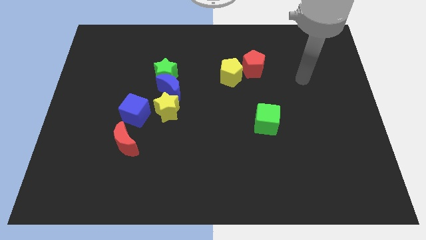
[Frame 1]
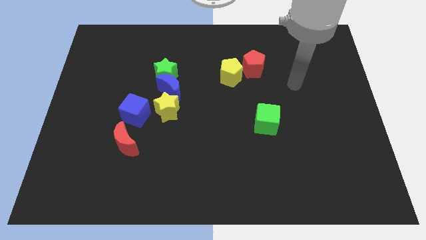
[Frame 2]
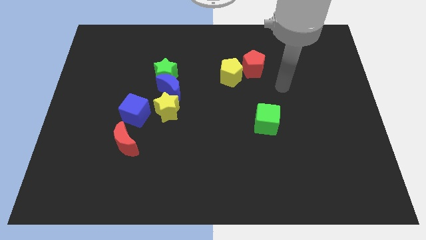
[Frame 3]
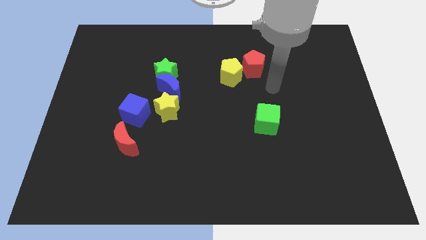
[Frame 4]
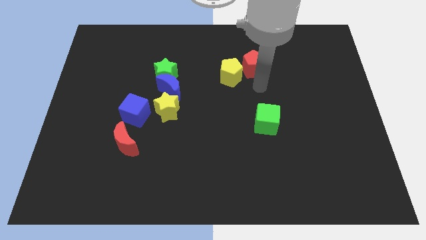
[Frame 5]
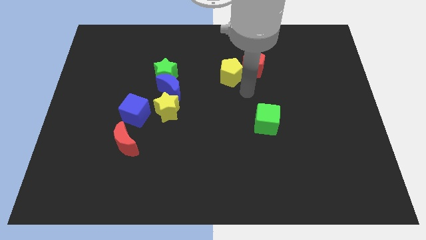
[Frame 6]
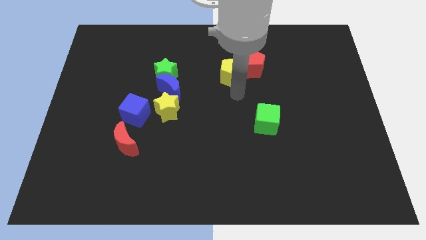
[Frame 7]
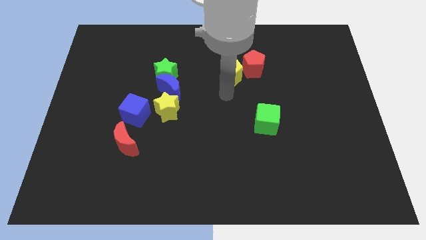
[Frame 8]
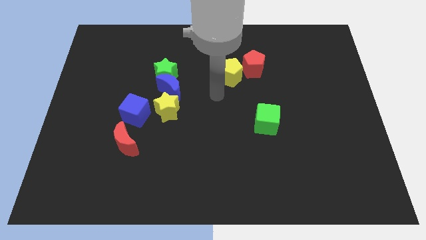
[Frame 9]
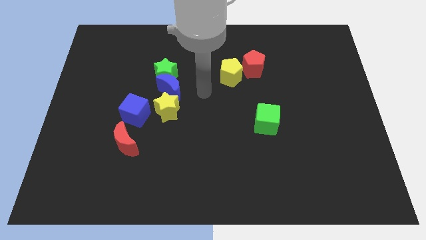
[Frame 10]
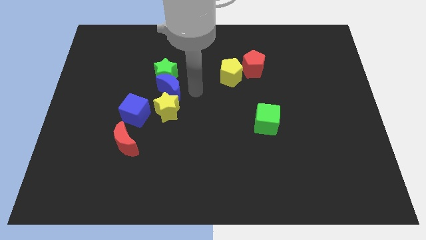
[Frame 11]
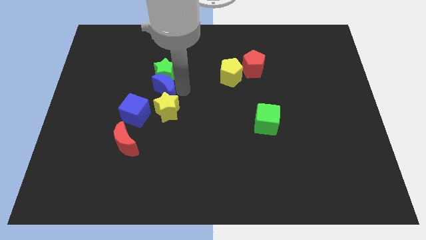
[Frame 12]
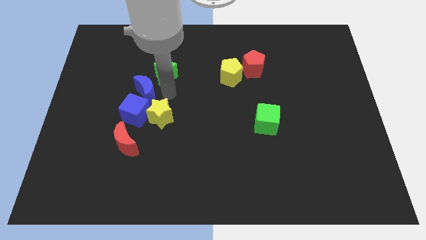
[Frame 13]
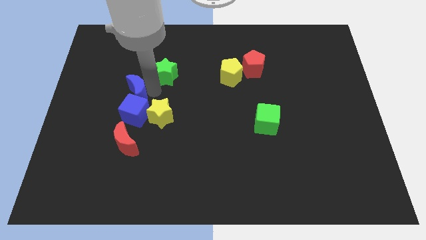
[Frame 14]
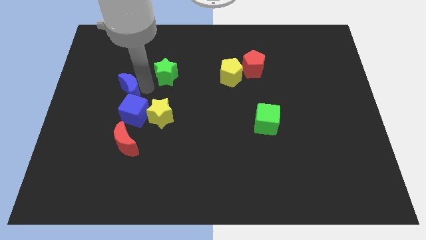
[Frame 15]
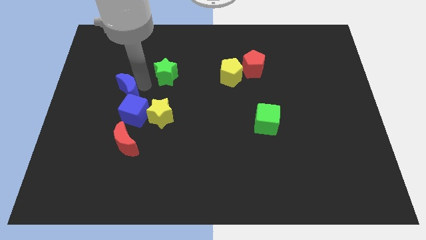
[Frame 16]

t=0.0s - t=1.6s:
separate the green star from the blue moon

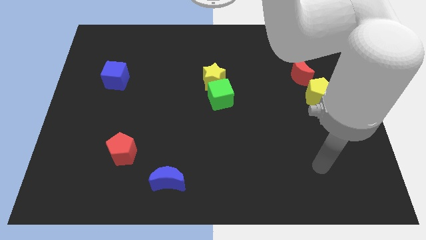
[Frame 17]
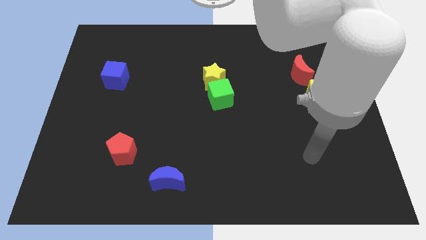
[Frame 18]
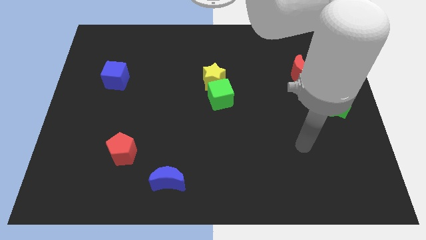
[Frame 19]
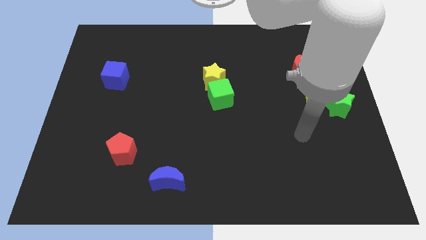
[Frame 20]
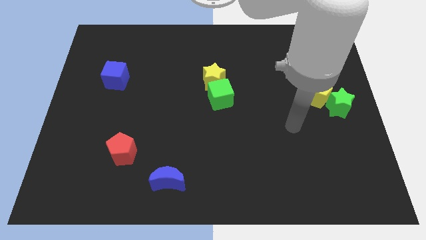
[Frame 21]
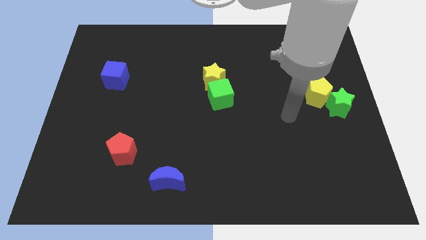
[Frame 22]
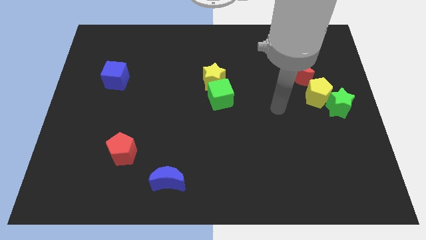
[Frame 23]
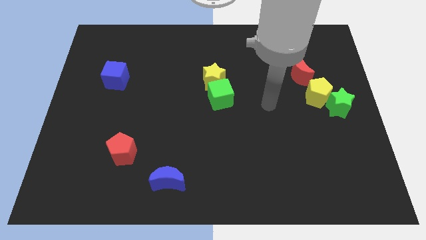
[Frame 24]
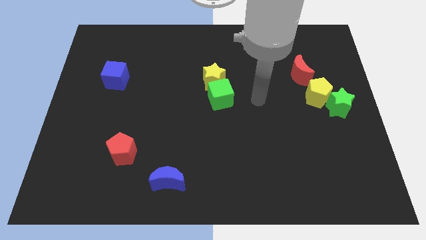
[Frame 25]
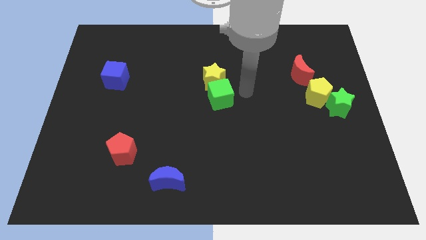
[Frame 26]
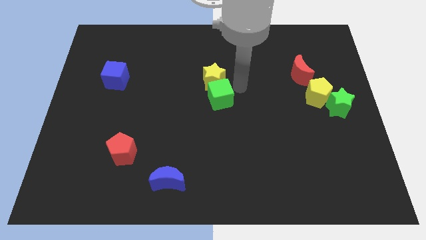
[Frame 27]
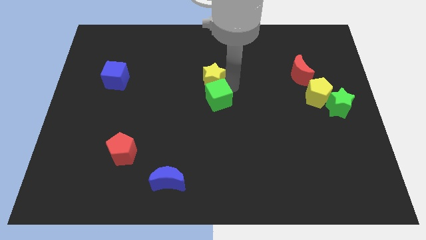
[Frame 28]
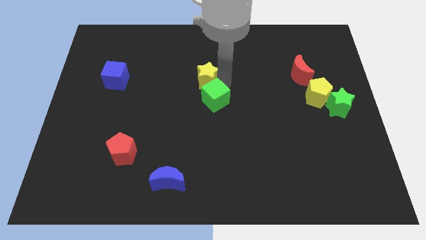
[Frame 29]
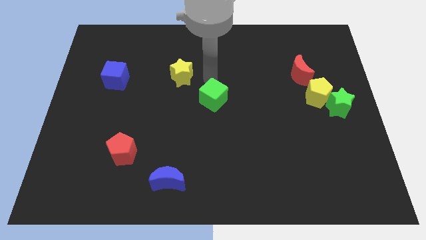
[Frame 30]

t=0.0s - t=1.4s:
move the green cube away from the yellow star

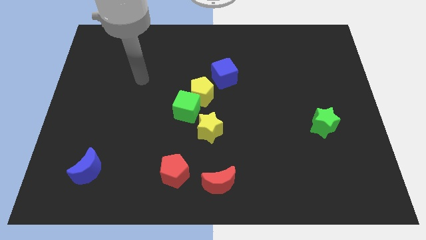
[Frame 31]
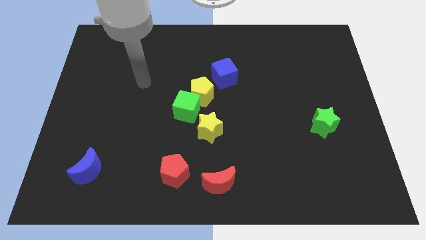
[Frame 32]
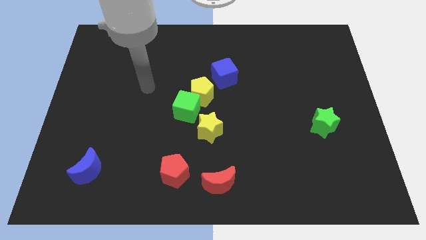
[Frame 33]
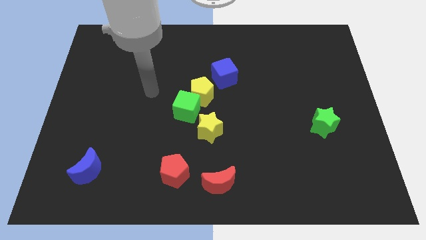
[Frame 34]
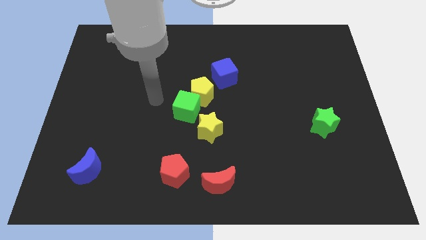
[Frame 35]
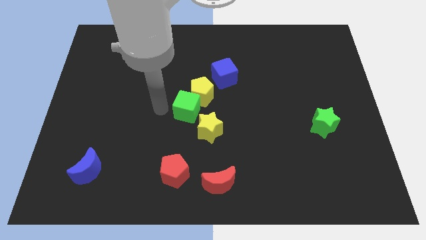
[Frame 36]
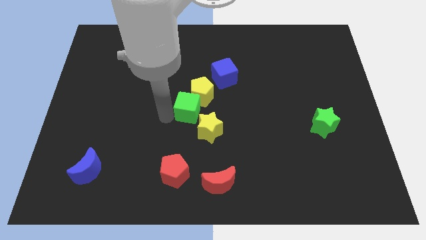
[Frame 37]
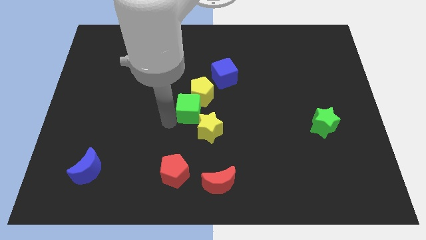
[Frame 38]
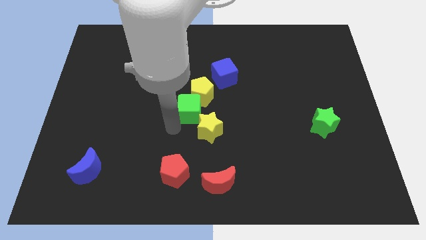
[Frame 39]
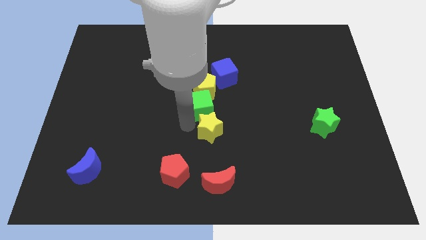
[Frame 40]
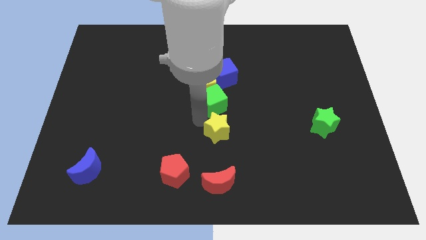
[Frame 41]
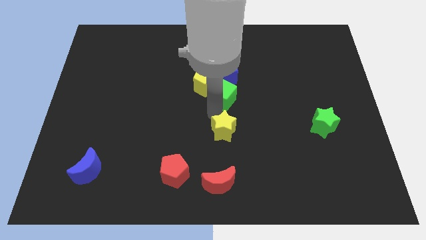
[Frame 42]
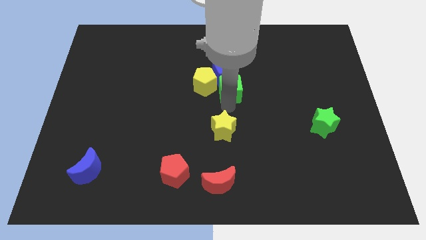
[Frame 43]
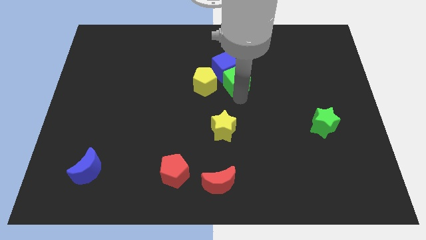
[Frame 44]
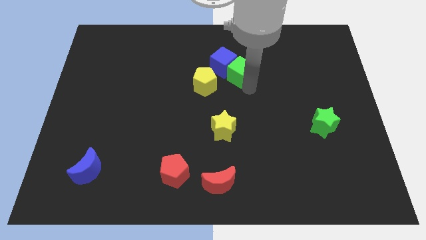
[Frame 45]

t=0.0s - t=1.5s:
move the green cube away from the yellow pentagon and yellow star

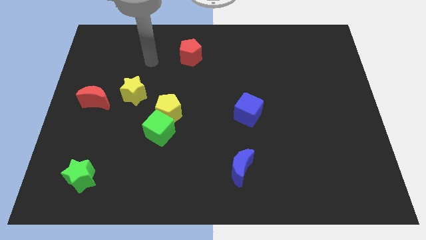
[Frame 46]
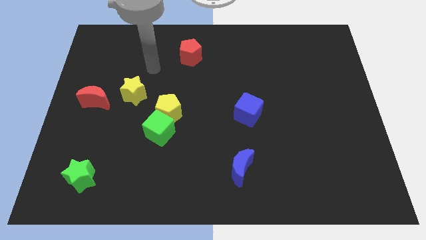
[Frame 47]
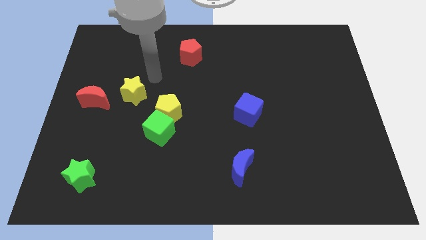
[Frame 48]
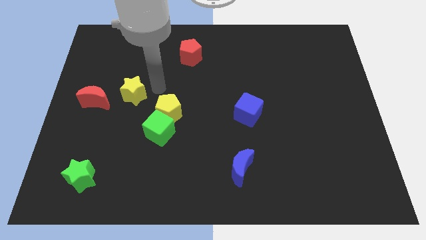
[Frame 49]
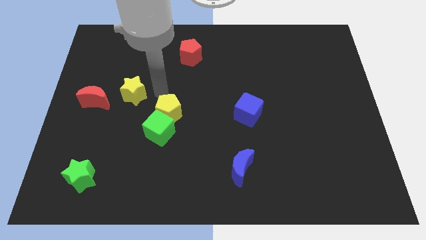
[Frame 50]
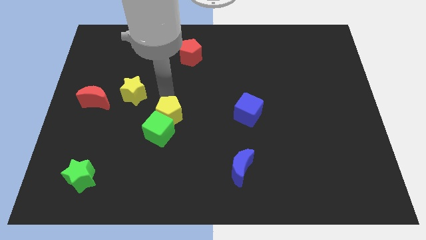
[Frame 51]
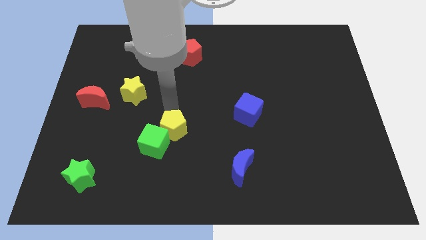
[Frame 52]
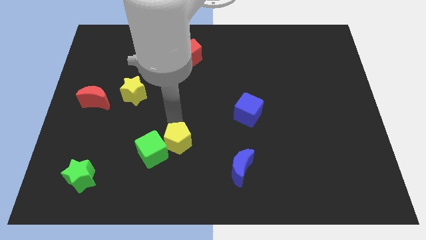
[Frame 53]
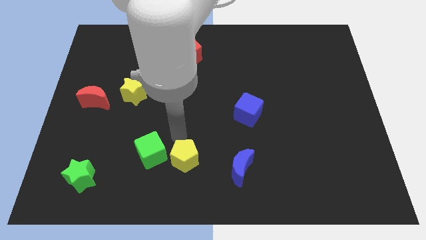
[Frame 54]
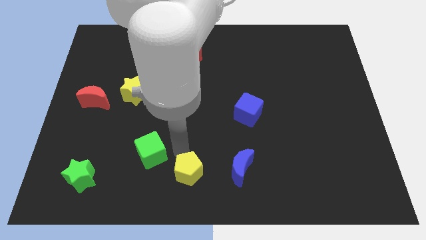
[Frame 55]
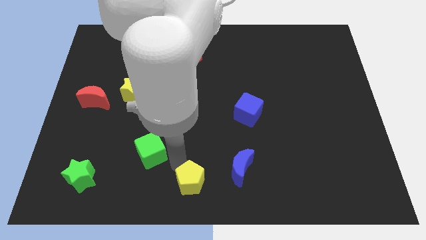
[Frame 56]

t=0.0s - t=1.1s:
separate the green cube from the yellow pentagon

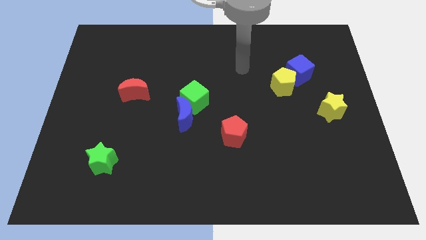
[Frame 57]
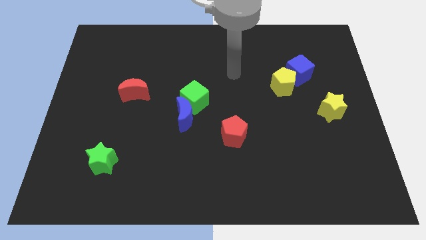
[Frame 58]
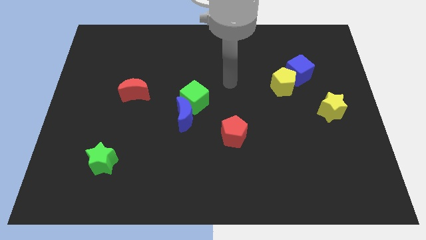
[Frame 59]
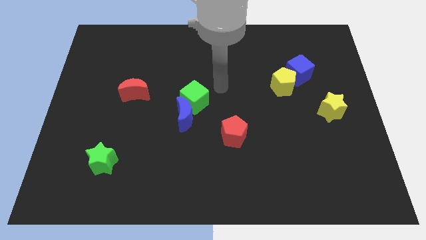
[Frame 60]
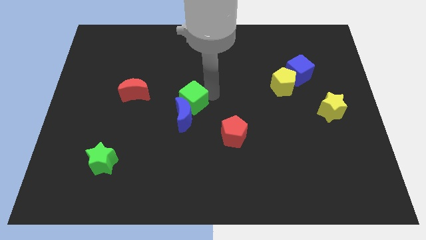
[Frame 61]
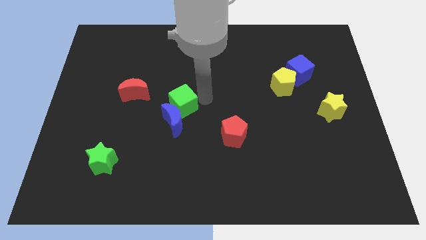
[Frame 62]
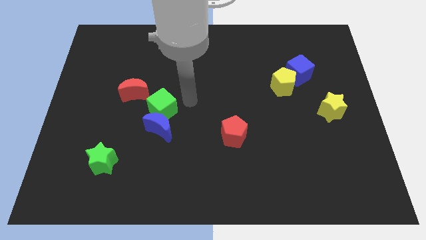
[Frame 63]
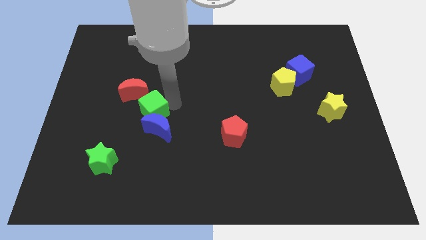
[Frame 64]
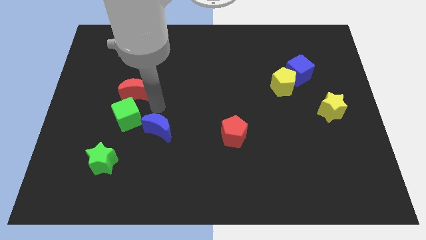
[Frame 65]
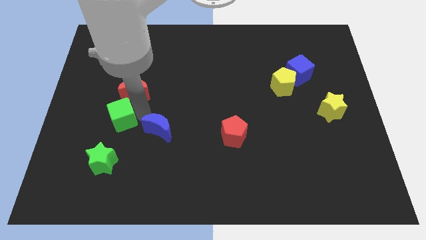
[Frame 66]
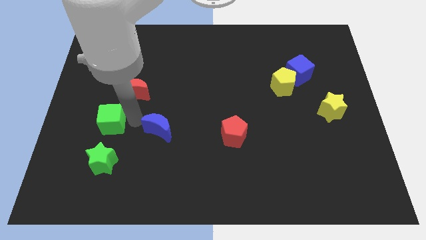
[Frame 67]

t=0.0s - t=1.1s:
move the blue moon away from the green cube

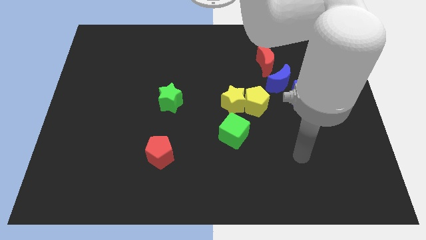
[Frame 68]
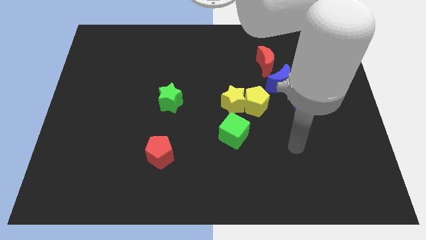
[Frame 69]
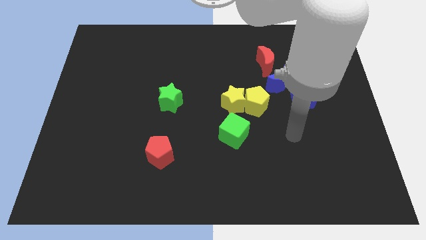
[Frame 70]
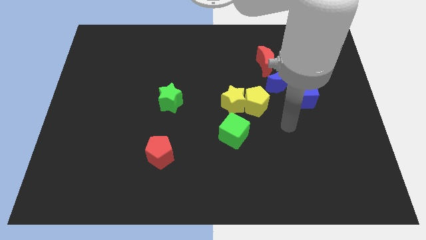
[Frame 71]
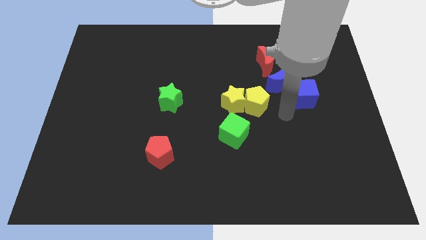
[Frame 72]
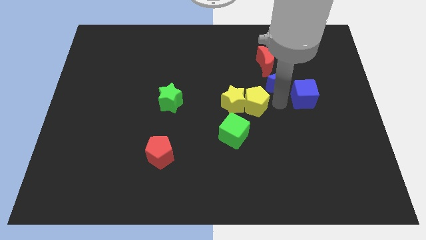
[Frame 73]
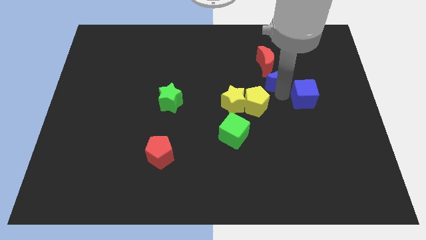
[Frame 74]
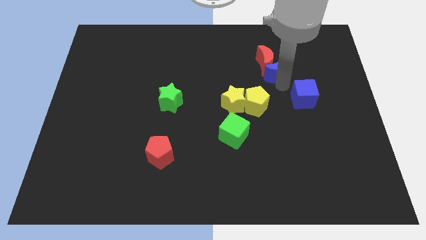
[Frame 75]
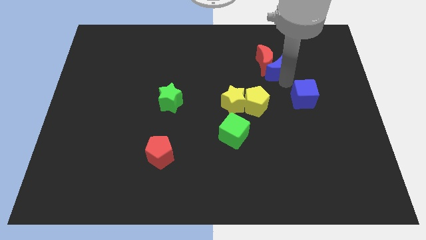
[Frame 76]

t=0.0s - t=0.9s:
separate the blue cube from the blue moon

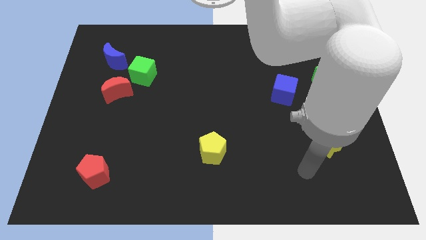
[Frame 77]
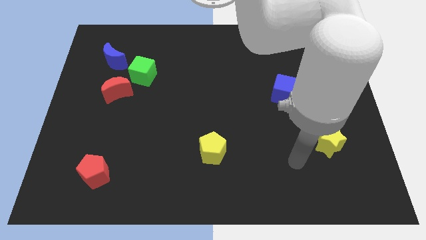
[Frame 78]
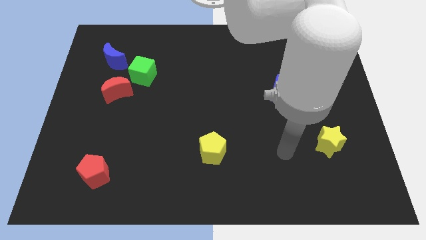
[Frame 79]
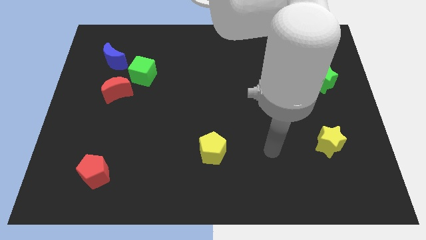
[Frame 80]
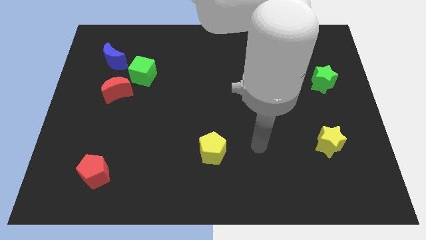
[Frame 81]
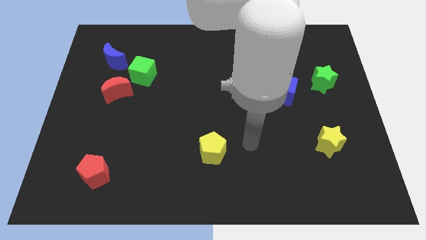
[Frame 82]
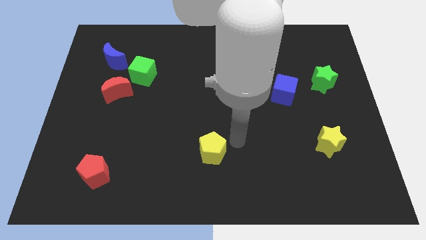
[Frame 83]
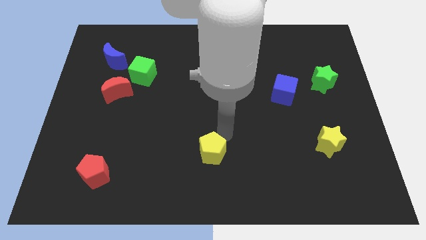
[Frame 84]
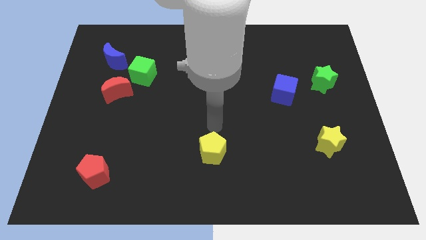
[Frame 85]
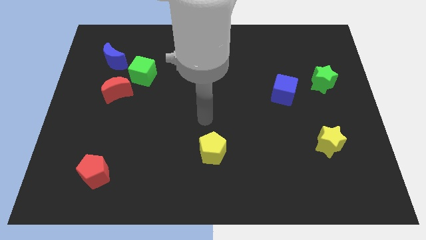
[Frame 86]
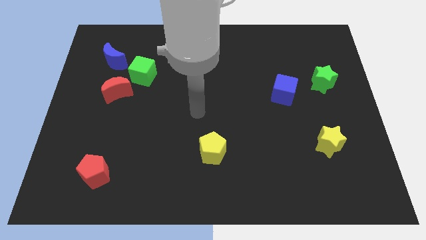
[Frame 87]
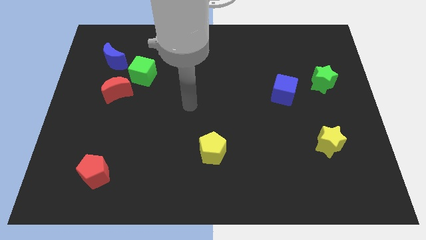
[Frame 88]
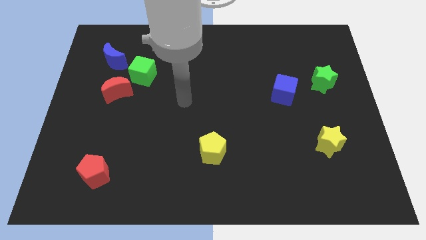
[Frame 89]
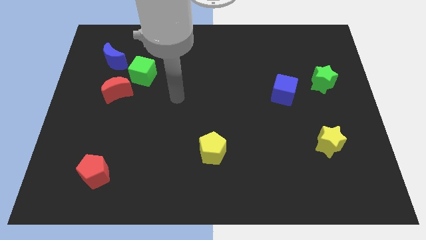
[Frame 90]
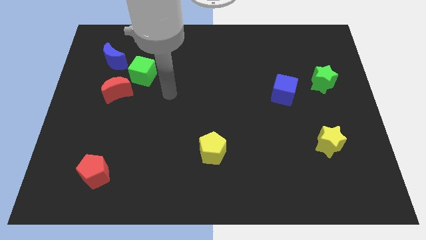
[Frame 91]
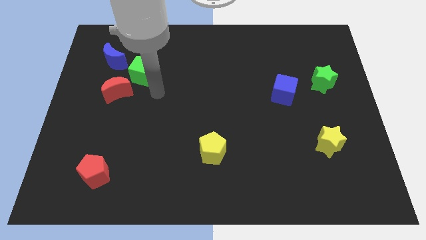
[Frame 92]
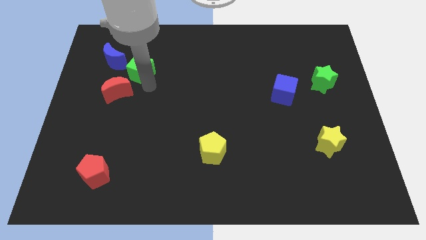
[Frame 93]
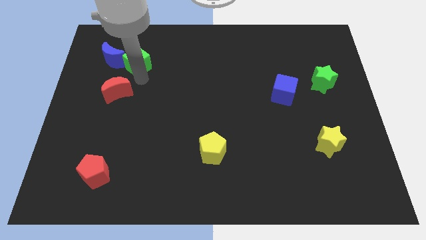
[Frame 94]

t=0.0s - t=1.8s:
pull the red moon apart from the green cube
